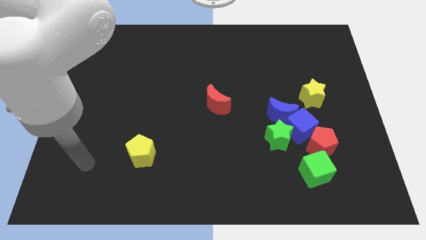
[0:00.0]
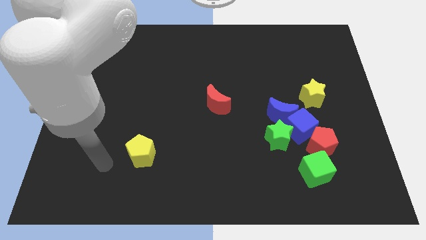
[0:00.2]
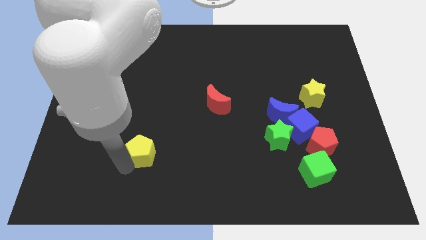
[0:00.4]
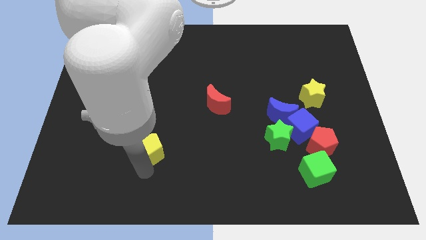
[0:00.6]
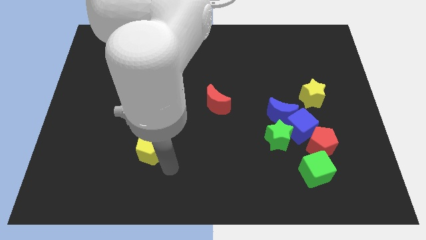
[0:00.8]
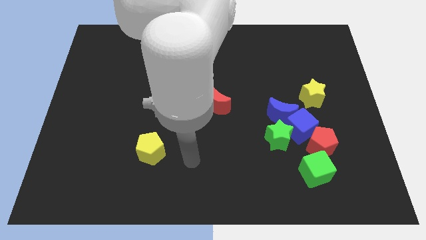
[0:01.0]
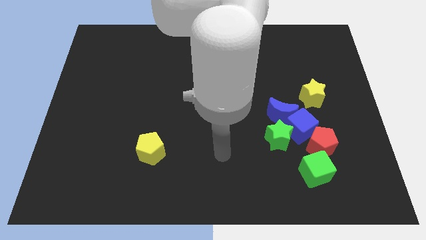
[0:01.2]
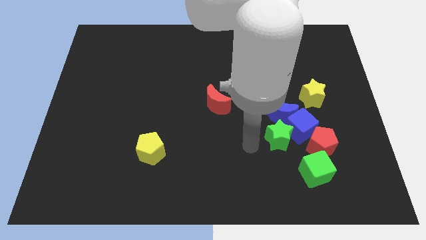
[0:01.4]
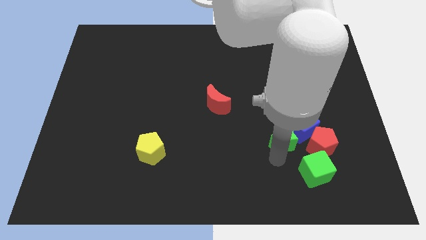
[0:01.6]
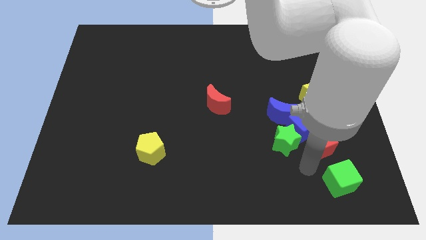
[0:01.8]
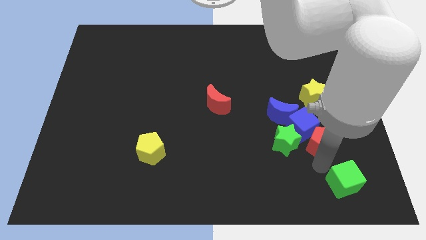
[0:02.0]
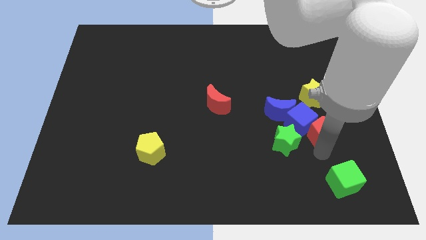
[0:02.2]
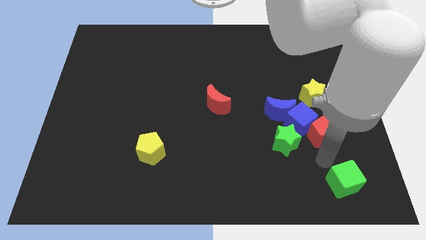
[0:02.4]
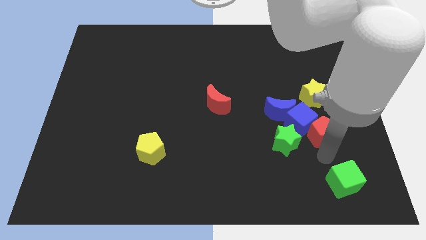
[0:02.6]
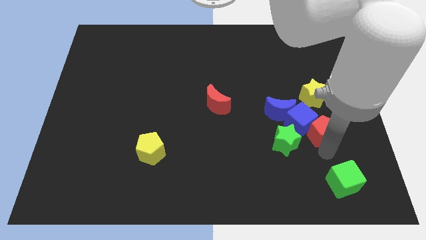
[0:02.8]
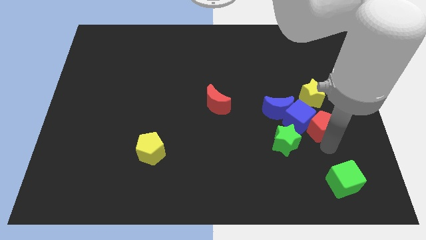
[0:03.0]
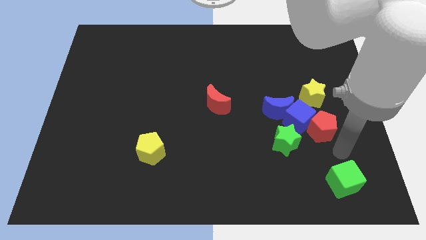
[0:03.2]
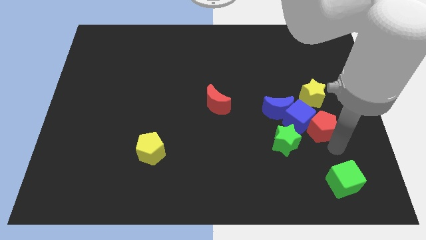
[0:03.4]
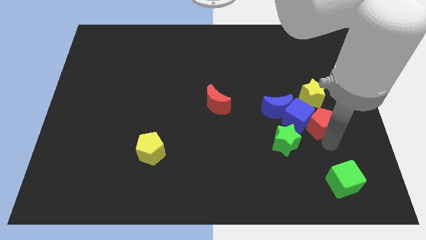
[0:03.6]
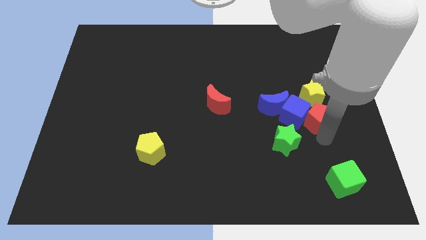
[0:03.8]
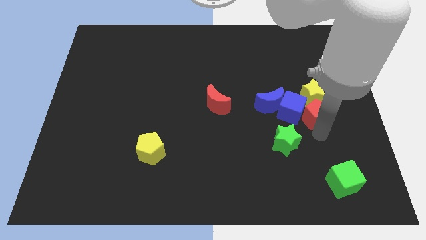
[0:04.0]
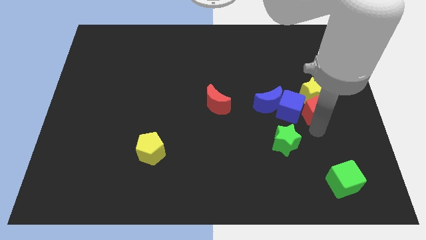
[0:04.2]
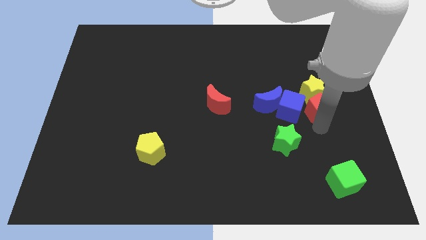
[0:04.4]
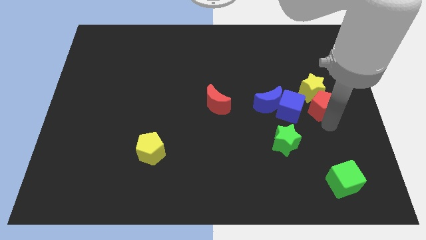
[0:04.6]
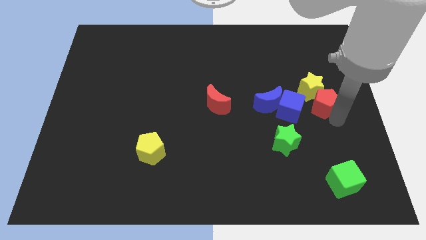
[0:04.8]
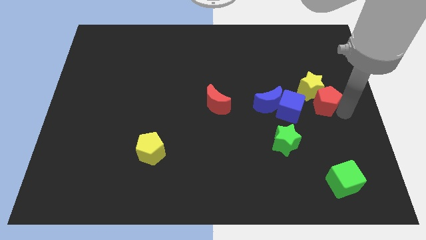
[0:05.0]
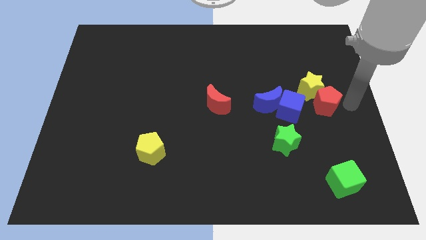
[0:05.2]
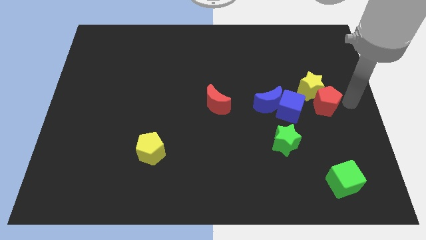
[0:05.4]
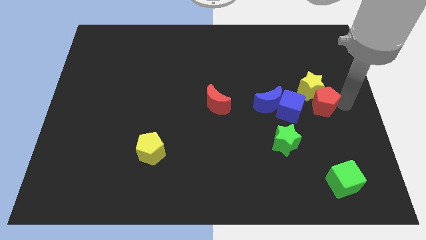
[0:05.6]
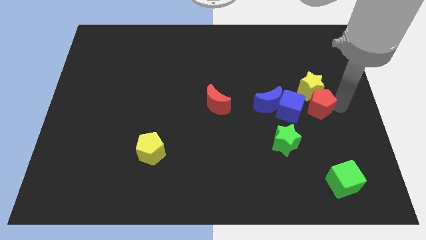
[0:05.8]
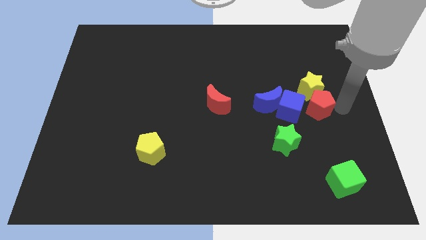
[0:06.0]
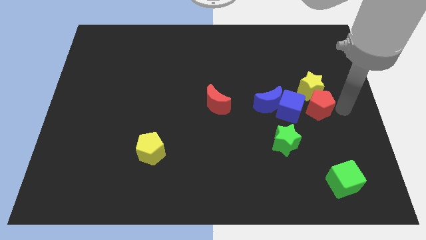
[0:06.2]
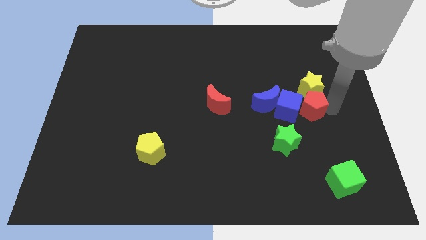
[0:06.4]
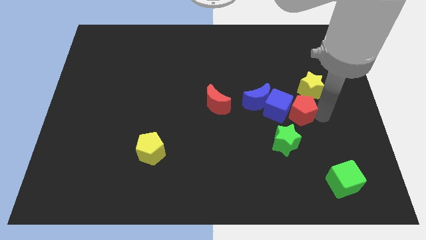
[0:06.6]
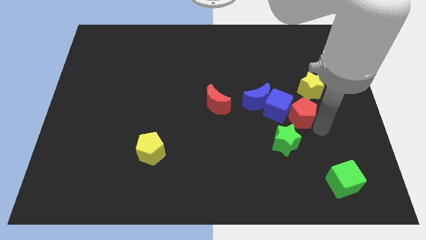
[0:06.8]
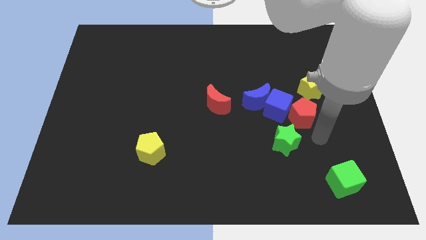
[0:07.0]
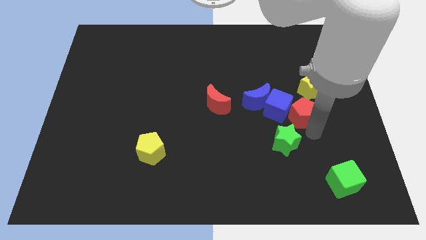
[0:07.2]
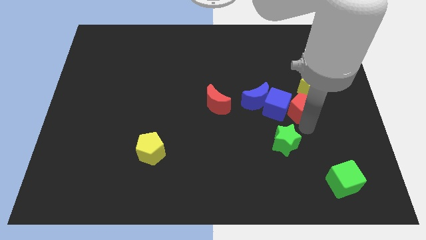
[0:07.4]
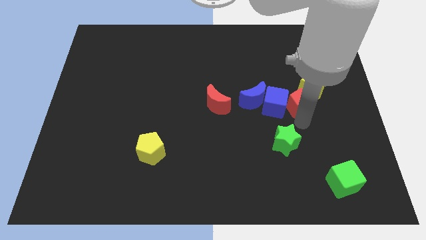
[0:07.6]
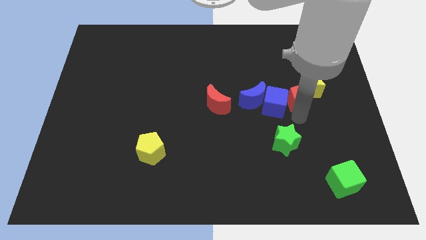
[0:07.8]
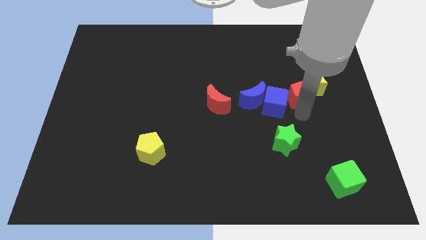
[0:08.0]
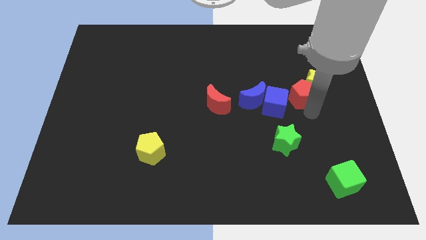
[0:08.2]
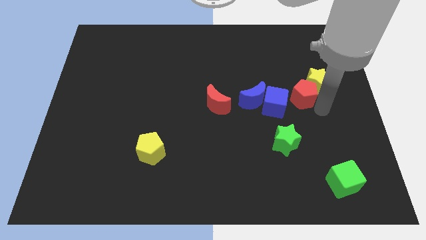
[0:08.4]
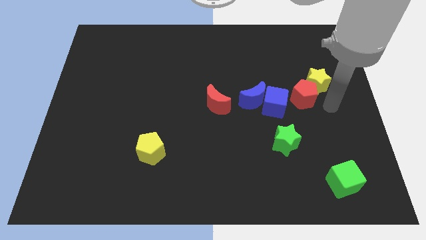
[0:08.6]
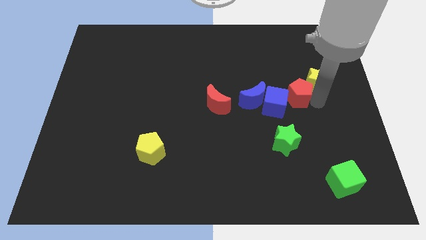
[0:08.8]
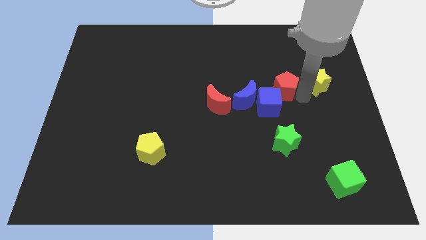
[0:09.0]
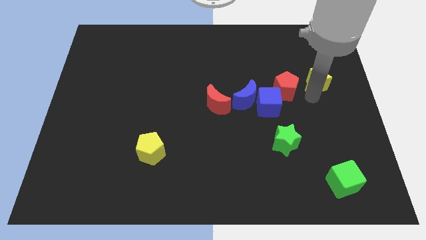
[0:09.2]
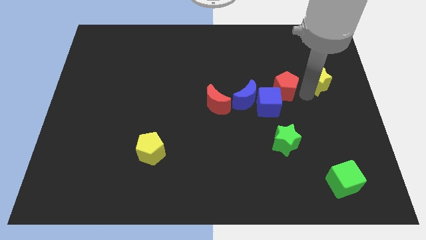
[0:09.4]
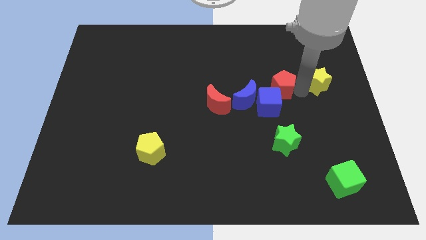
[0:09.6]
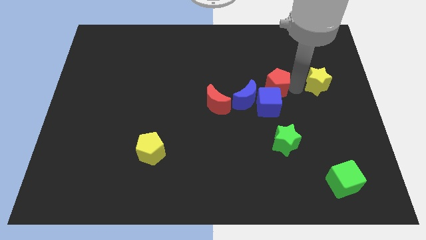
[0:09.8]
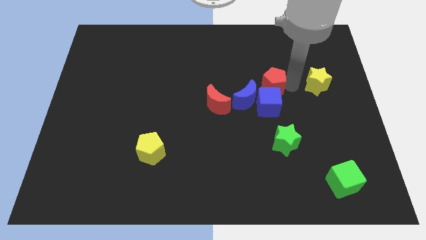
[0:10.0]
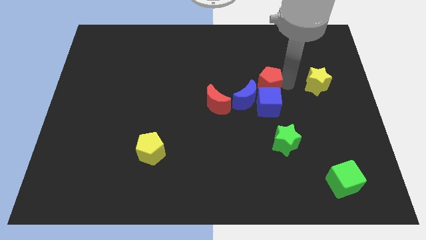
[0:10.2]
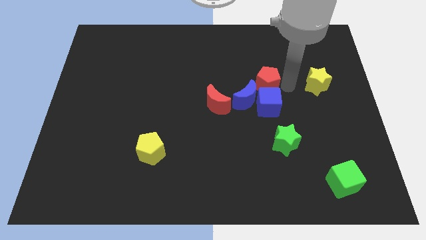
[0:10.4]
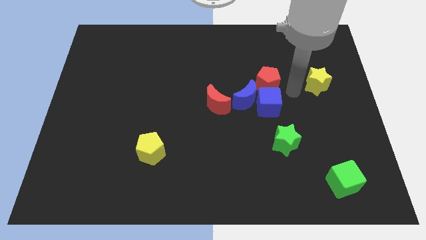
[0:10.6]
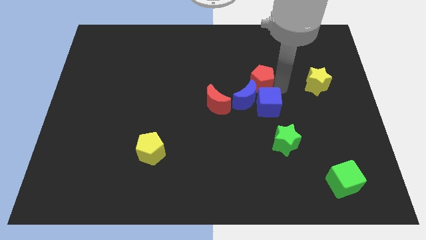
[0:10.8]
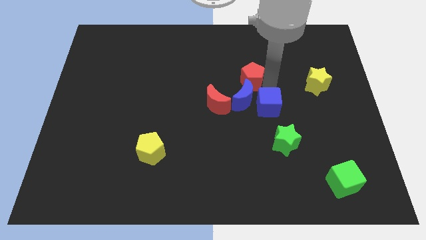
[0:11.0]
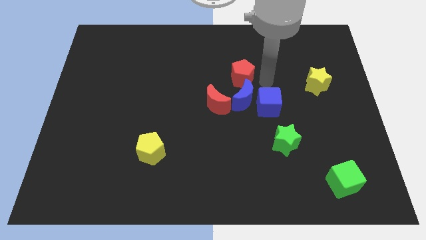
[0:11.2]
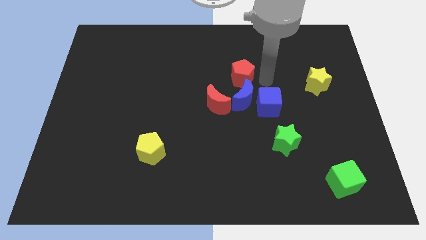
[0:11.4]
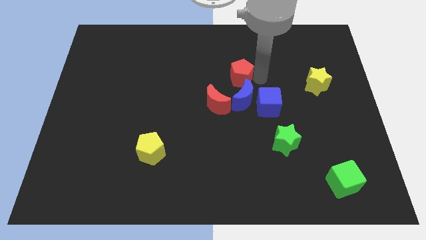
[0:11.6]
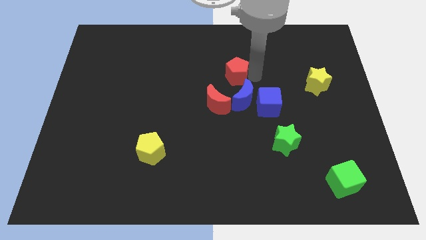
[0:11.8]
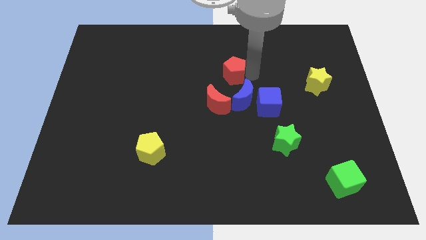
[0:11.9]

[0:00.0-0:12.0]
slide the red pentagon above the red moon
